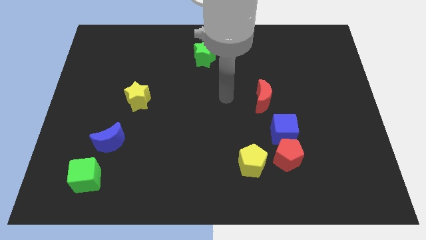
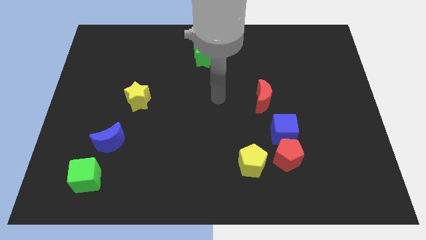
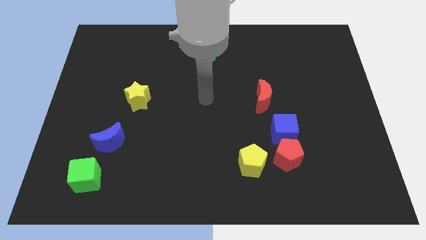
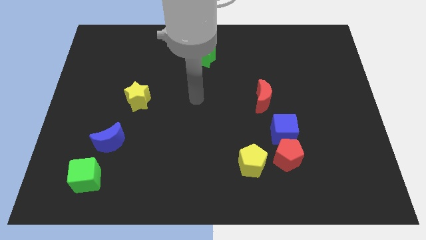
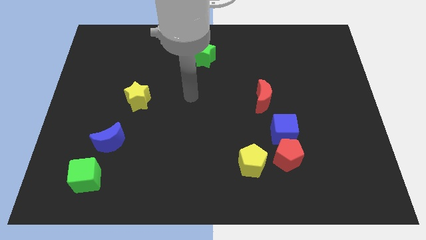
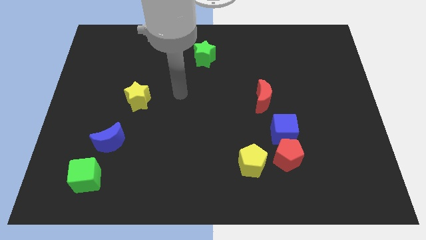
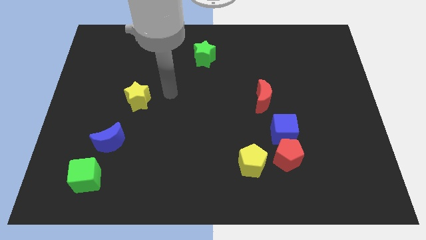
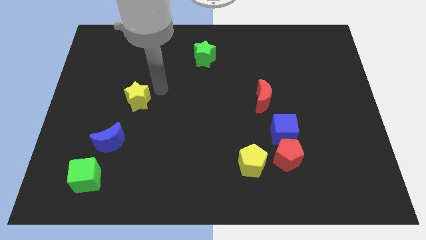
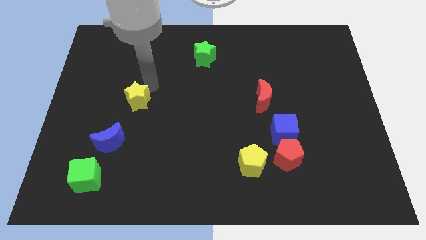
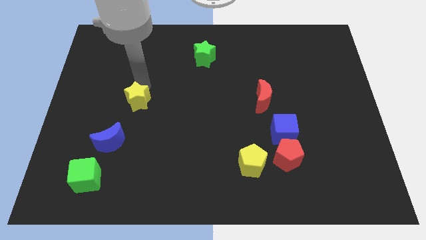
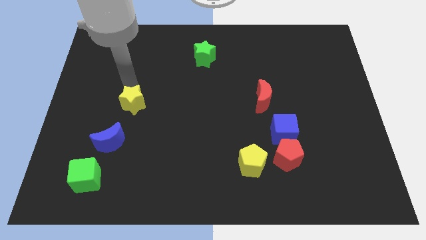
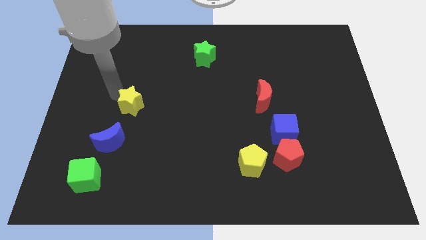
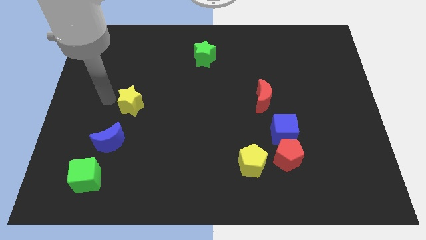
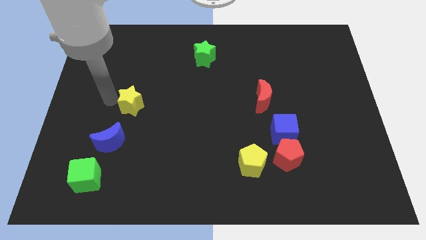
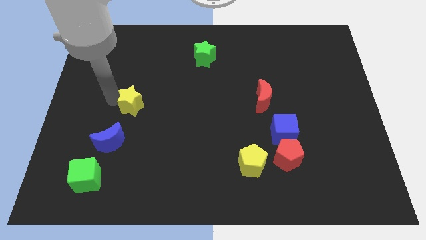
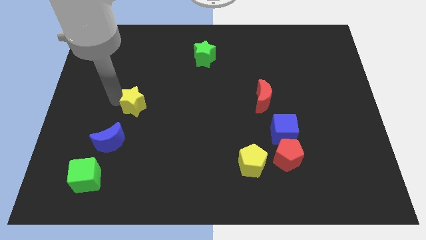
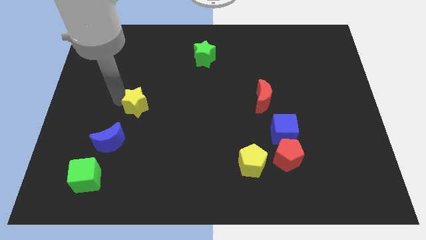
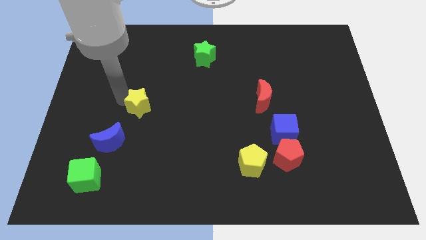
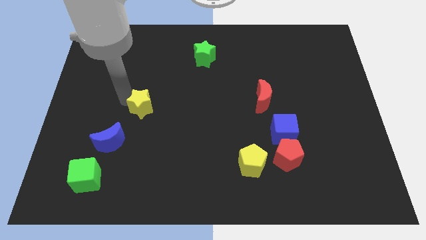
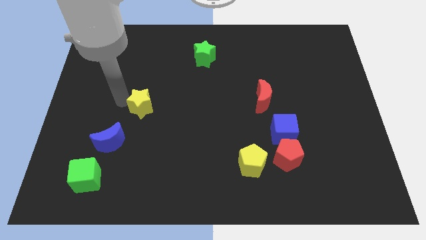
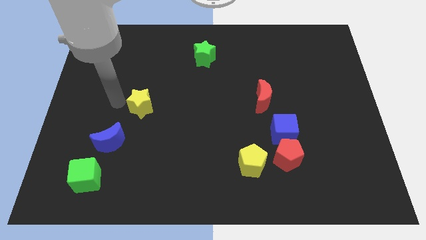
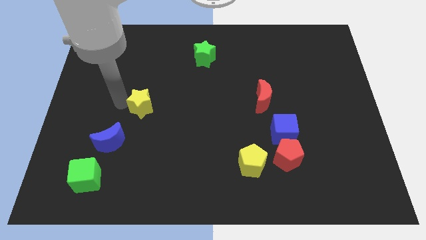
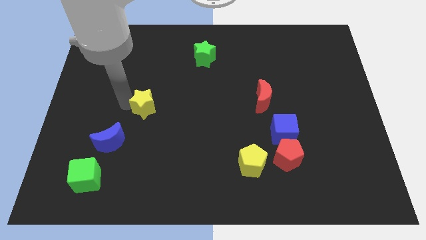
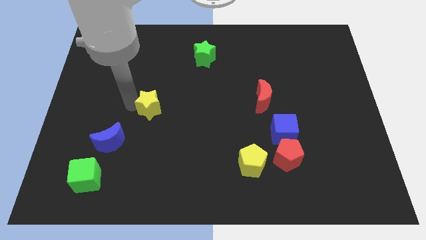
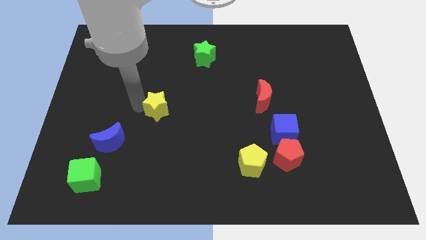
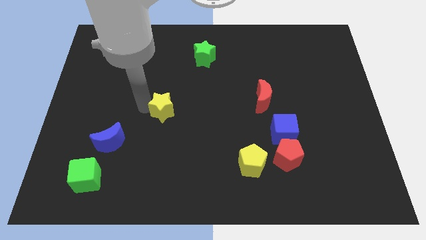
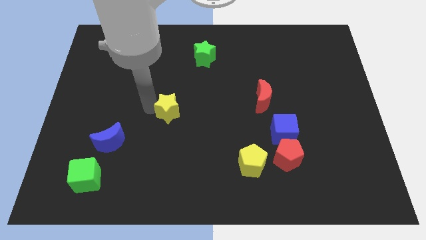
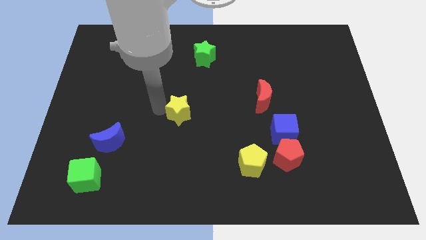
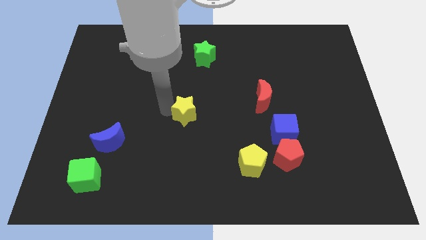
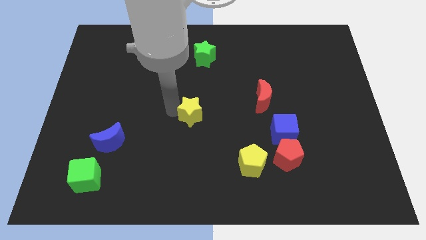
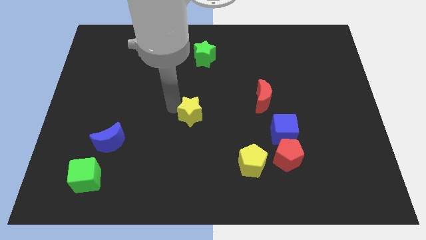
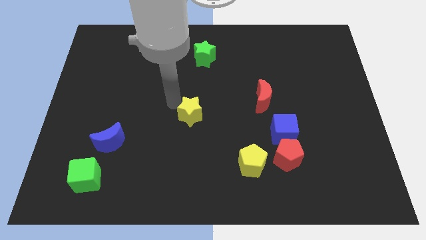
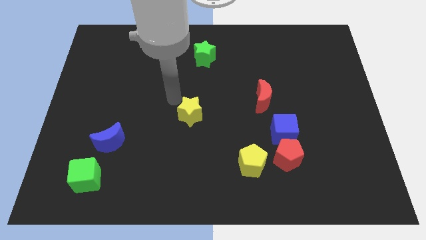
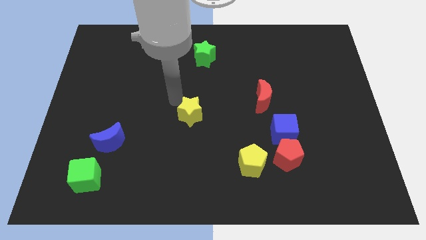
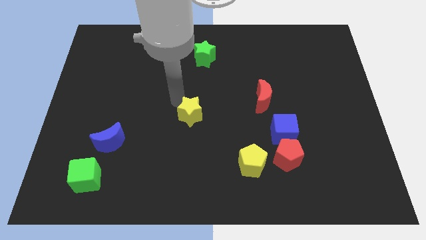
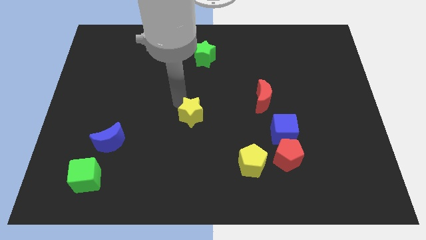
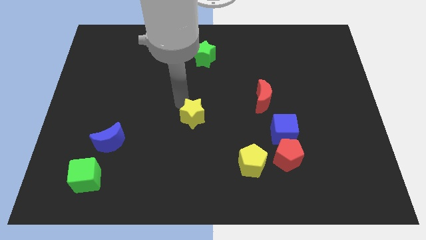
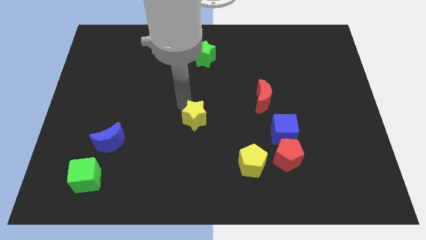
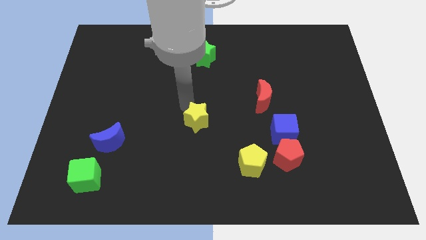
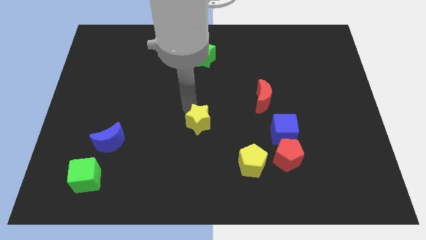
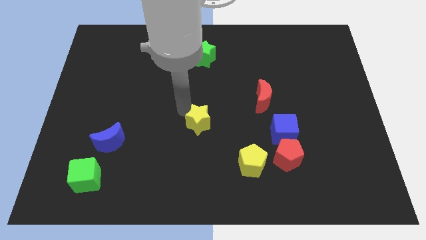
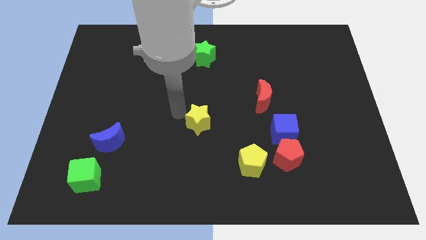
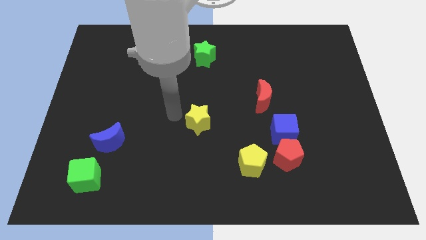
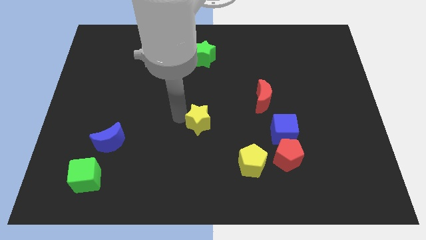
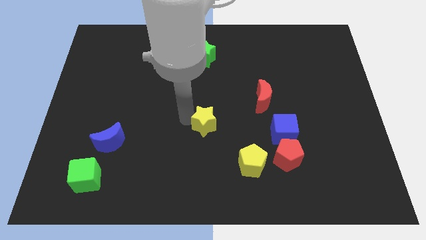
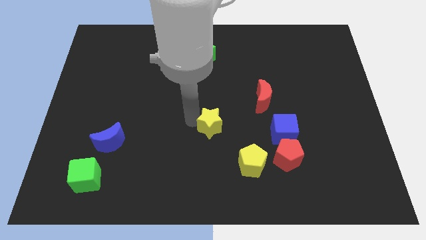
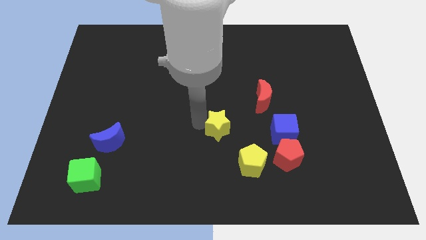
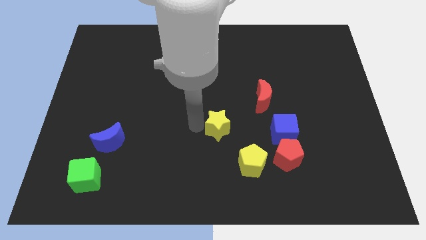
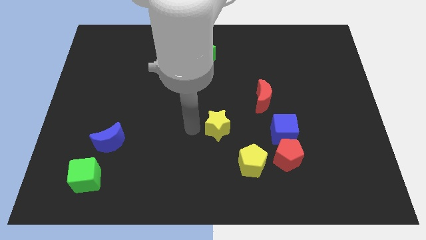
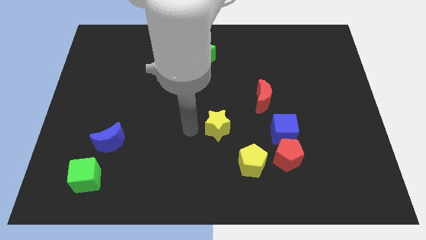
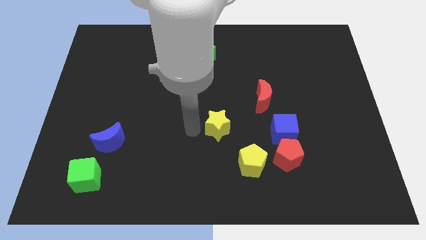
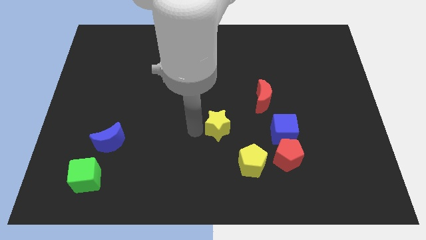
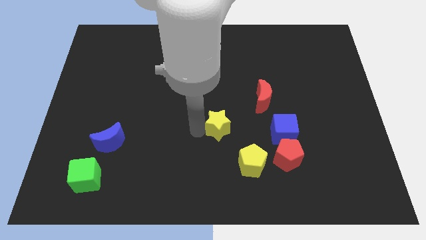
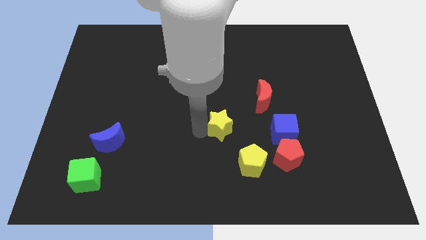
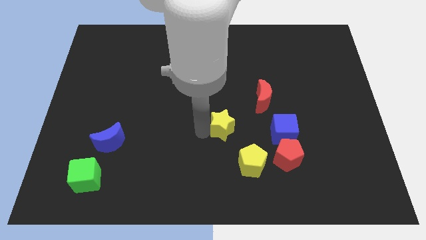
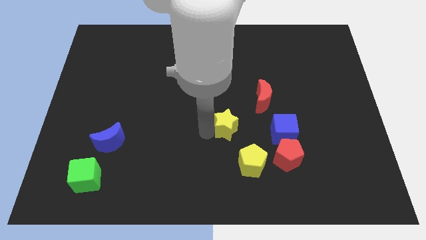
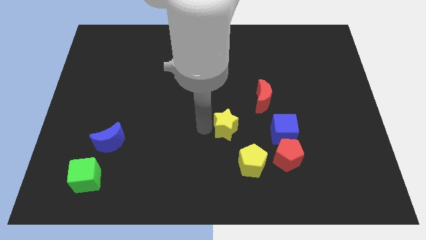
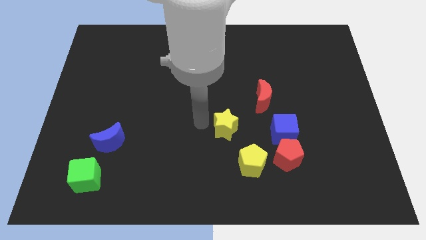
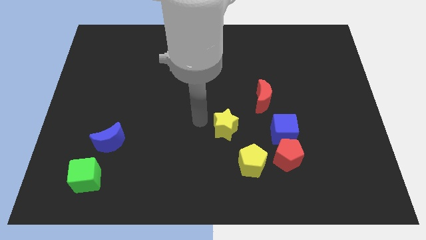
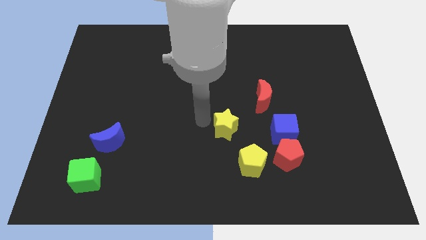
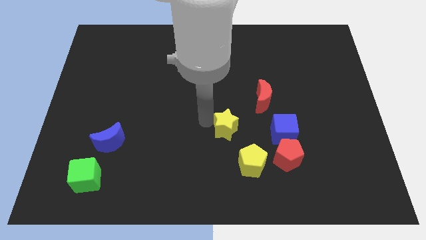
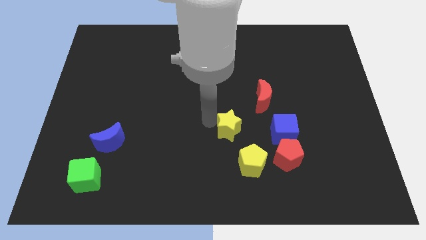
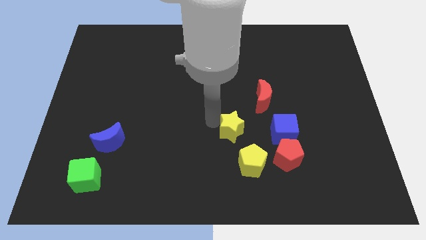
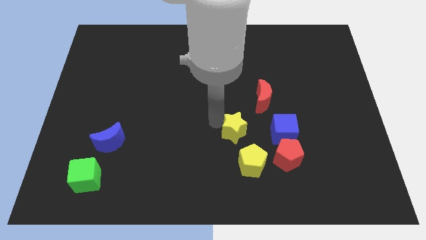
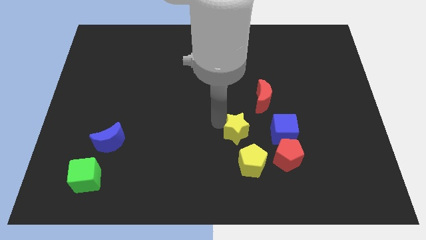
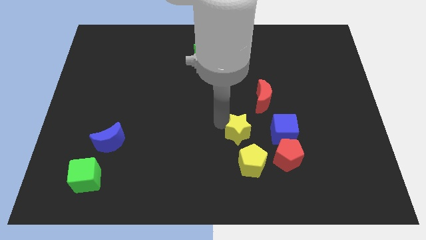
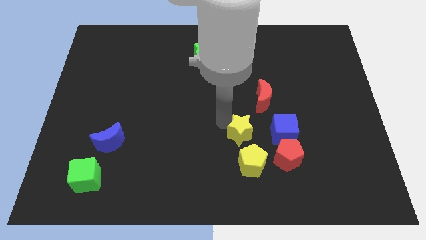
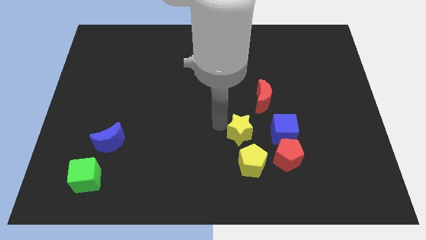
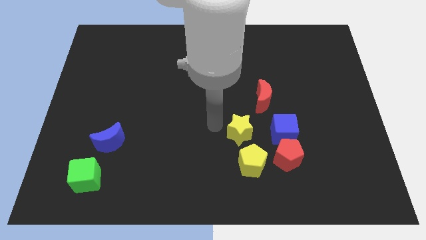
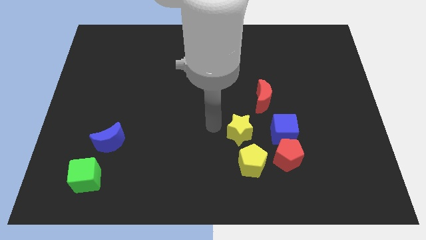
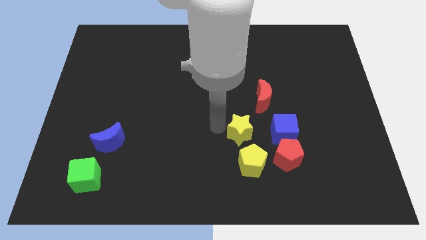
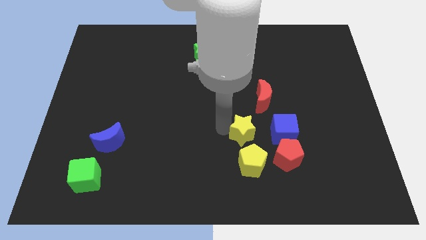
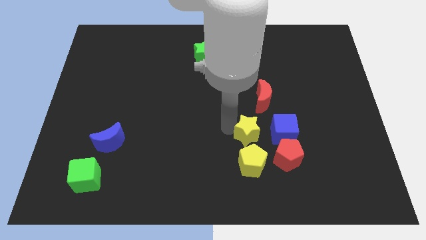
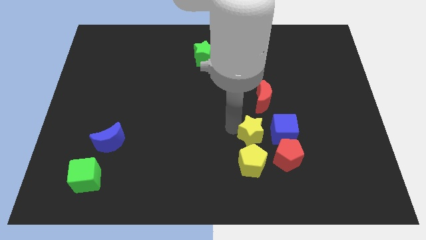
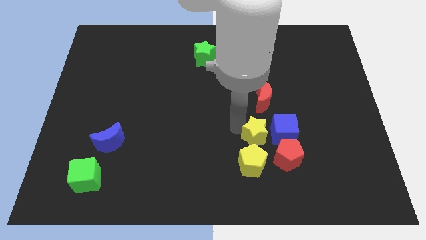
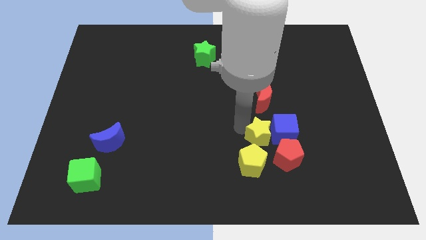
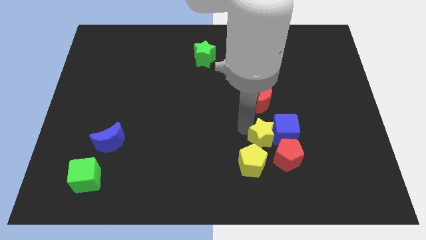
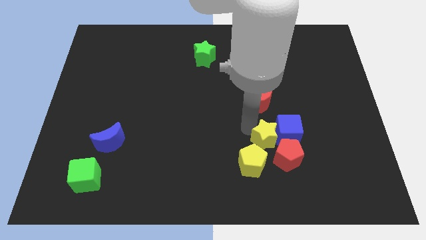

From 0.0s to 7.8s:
push the yellow star towards the red pentagon
